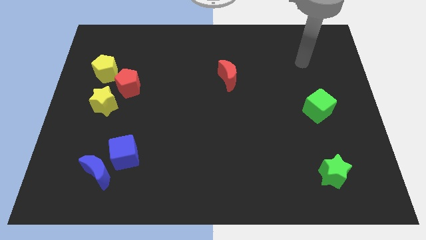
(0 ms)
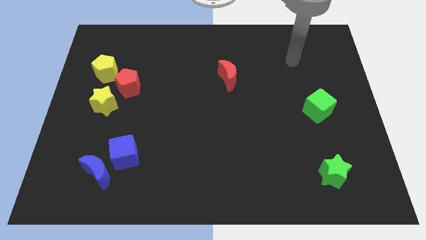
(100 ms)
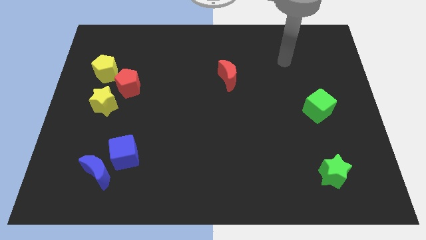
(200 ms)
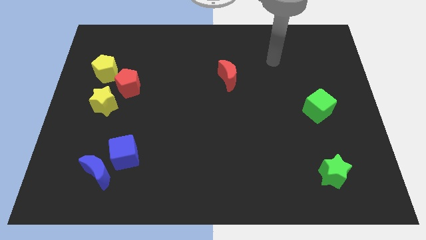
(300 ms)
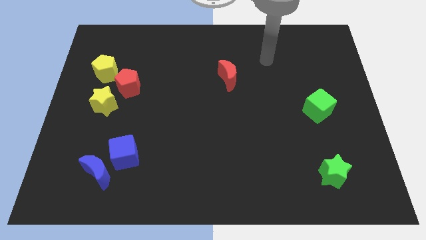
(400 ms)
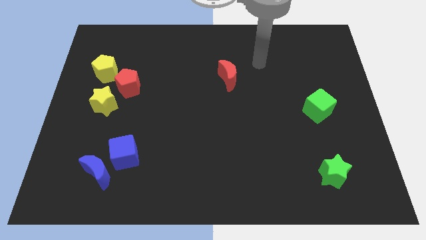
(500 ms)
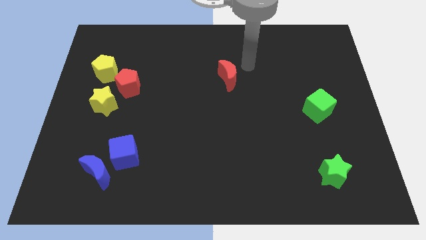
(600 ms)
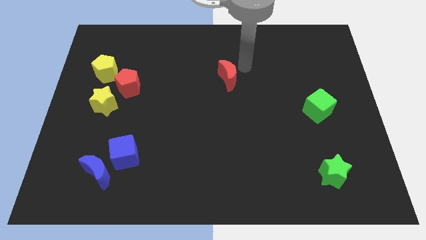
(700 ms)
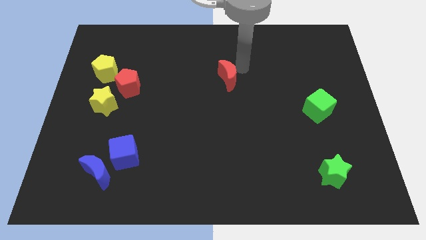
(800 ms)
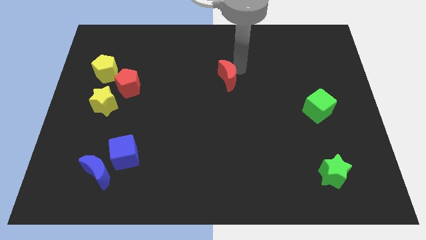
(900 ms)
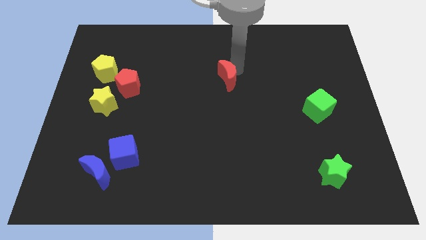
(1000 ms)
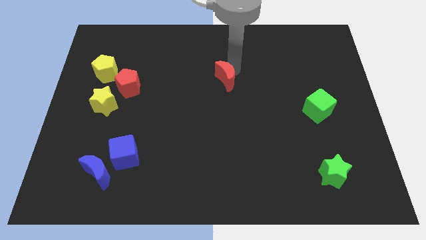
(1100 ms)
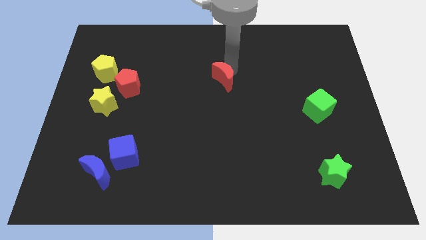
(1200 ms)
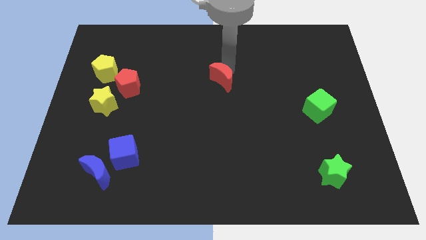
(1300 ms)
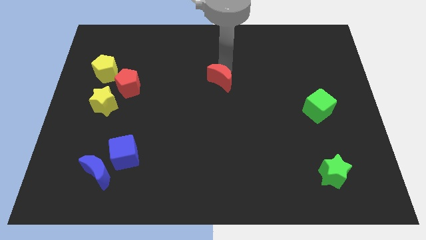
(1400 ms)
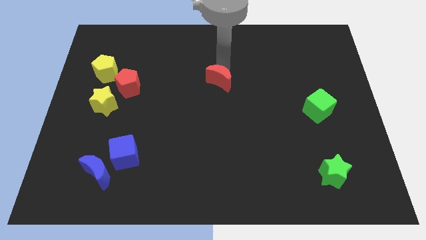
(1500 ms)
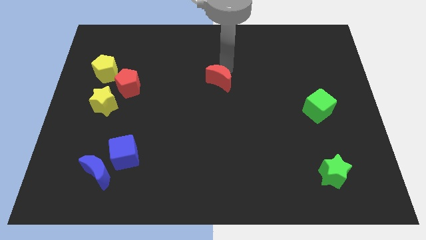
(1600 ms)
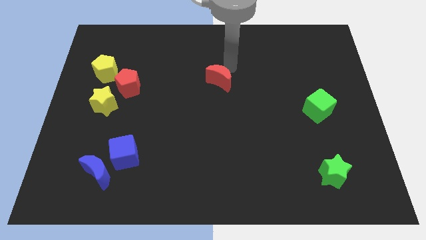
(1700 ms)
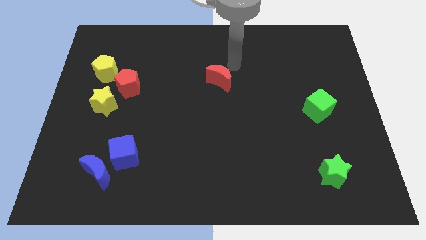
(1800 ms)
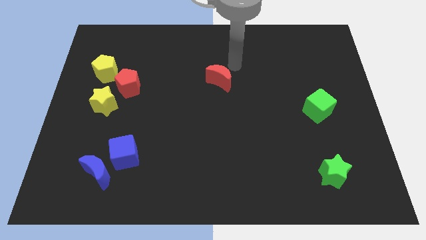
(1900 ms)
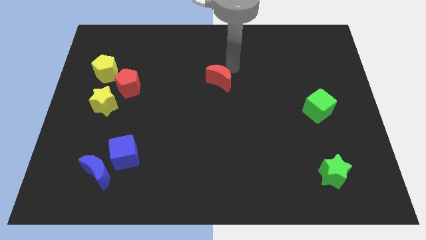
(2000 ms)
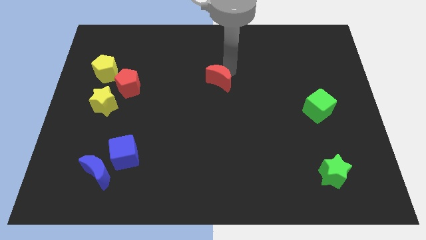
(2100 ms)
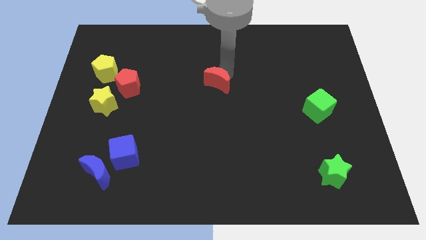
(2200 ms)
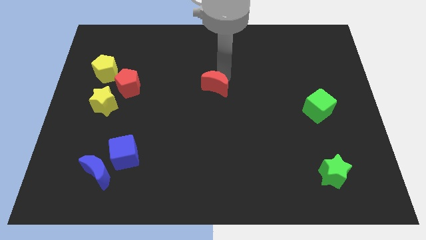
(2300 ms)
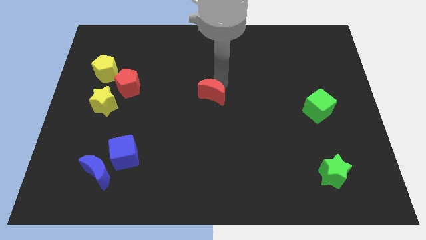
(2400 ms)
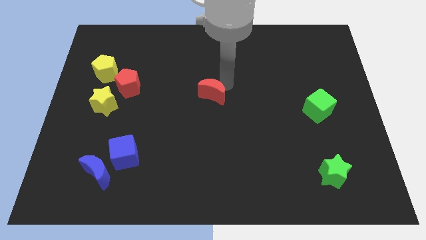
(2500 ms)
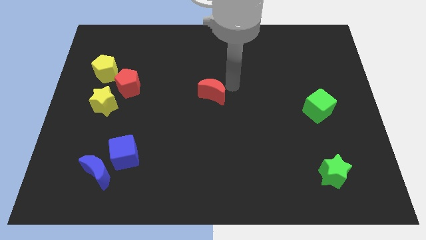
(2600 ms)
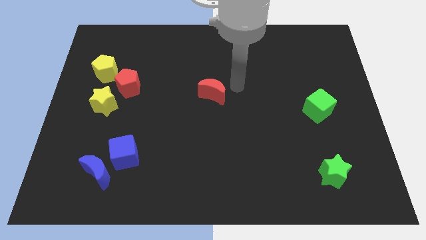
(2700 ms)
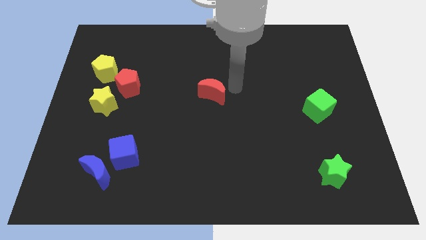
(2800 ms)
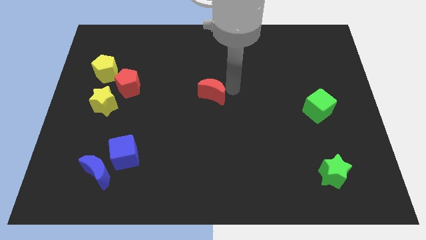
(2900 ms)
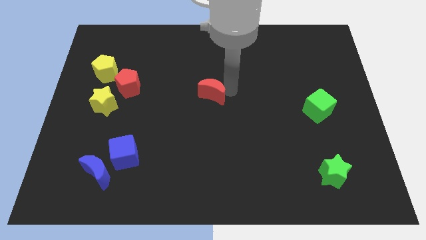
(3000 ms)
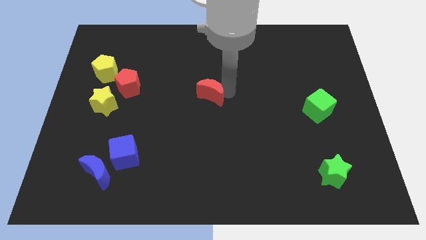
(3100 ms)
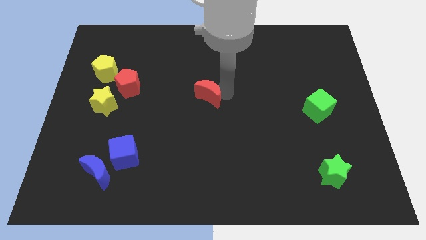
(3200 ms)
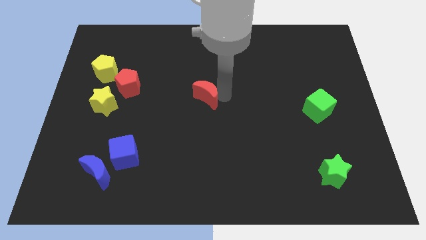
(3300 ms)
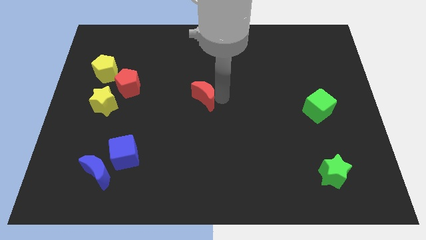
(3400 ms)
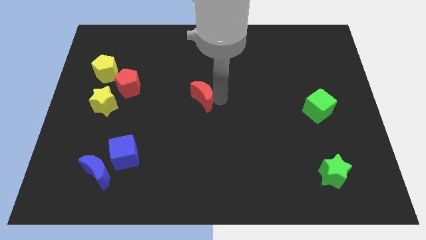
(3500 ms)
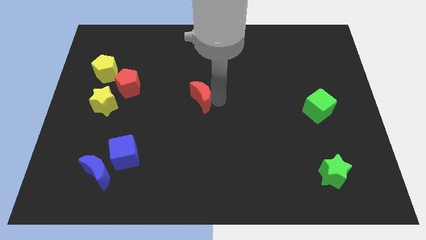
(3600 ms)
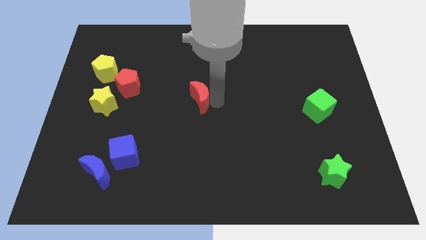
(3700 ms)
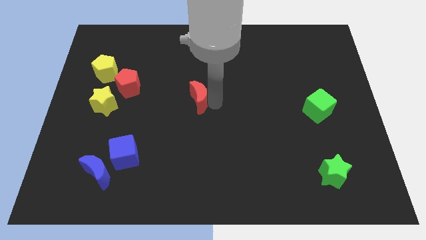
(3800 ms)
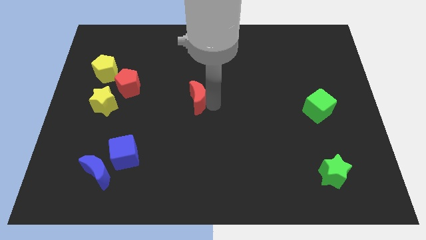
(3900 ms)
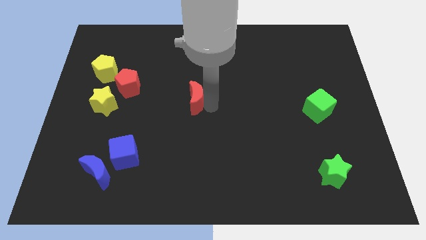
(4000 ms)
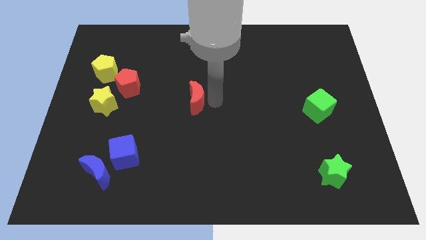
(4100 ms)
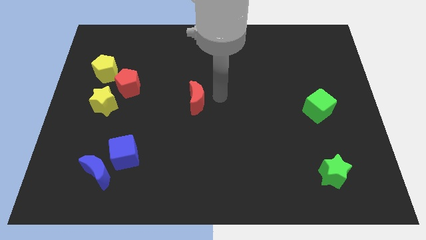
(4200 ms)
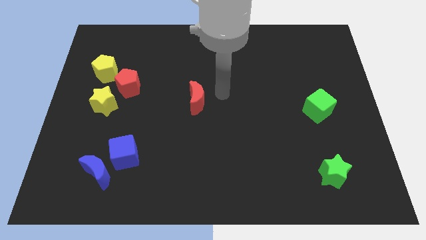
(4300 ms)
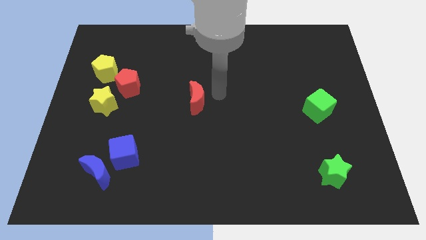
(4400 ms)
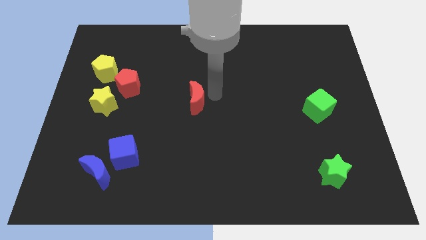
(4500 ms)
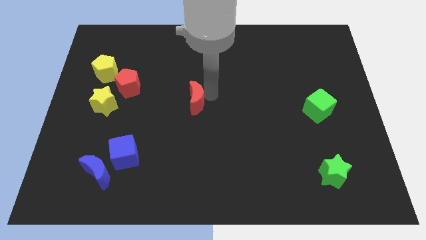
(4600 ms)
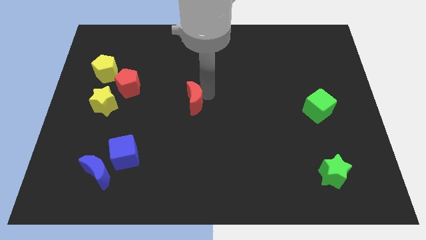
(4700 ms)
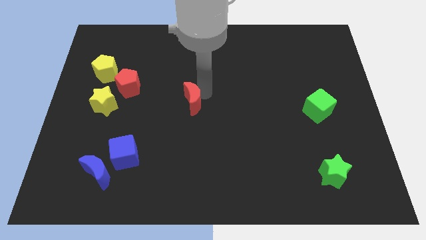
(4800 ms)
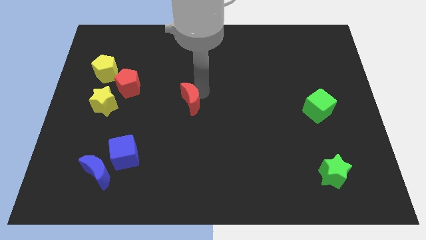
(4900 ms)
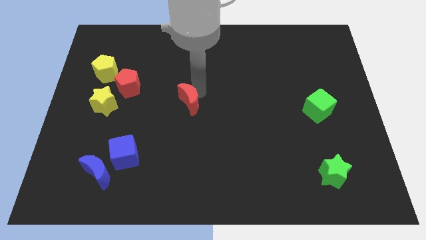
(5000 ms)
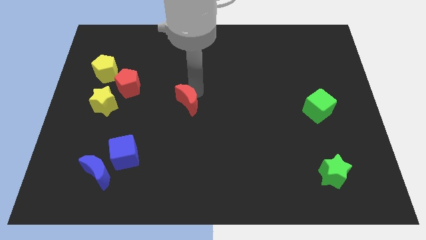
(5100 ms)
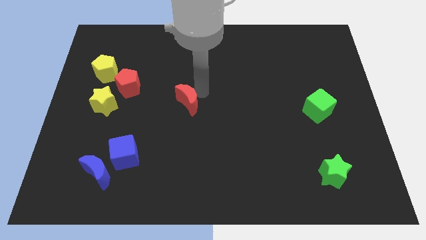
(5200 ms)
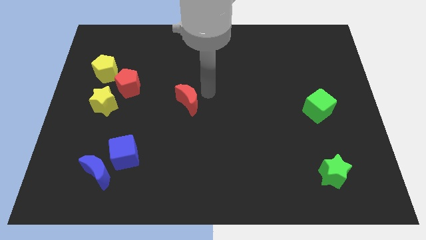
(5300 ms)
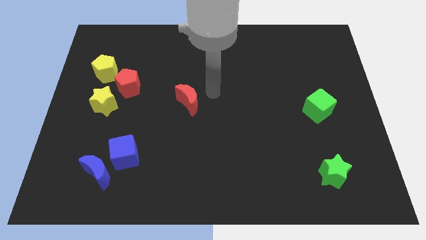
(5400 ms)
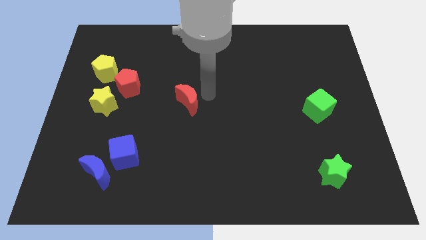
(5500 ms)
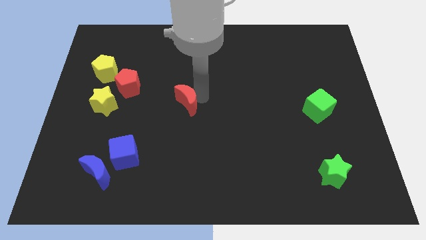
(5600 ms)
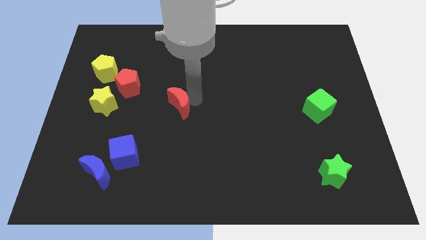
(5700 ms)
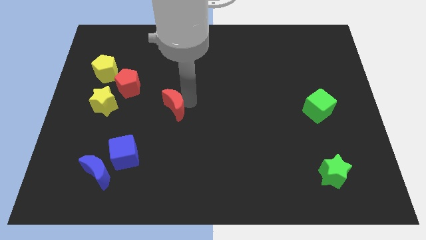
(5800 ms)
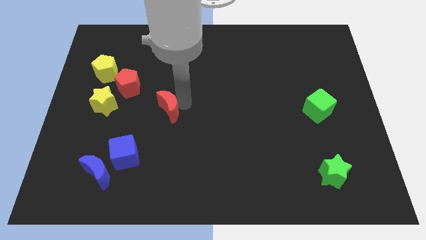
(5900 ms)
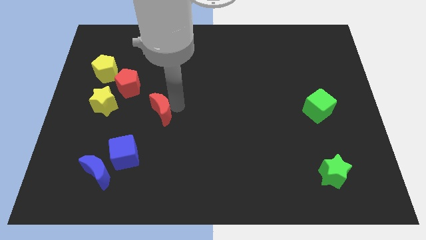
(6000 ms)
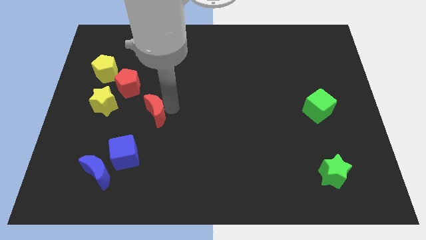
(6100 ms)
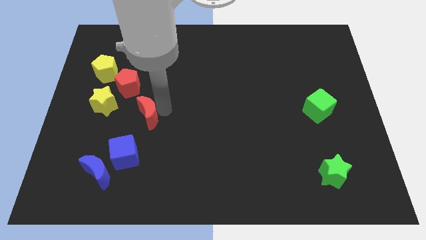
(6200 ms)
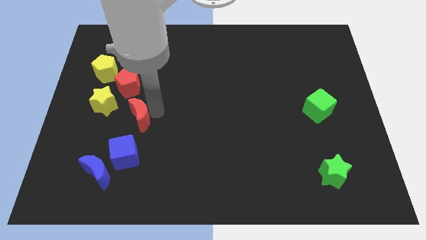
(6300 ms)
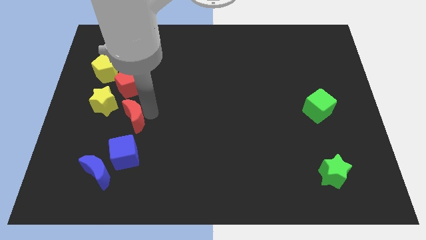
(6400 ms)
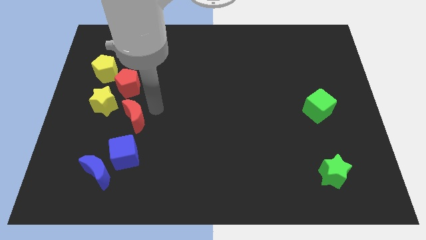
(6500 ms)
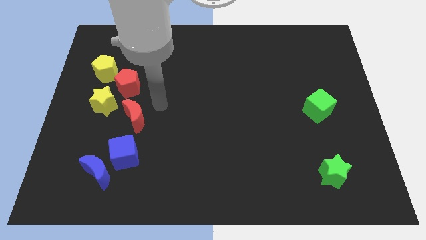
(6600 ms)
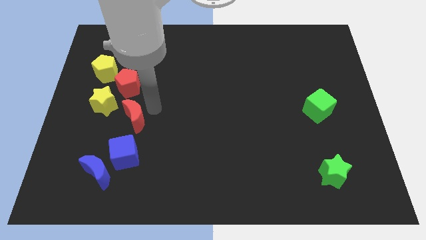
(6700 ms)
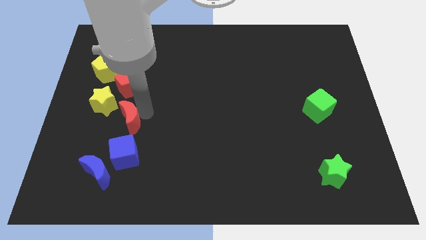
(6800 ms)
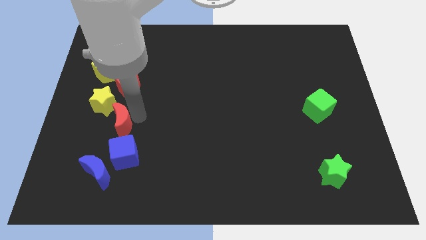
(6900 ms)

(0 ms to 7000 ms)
move the red moon to the top left of the blue cube

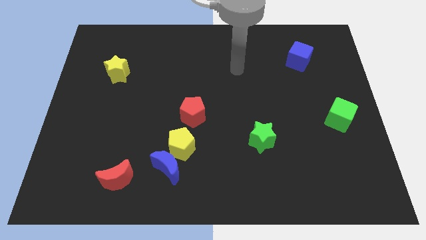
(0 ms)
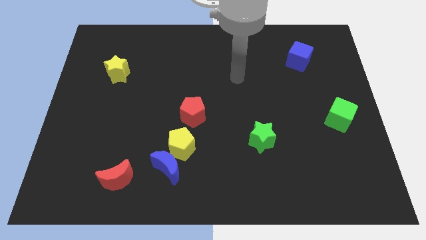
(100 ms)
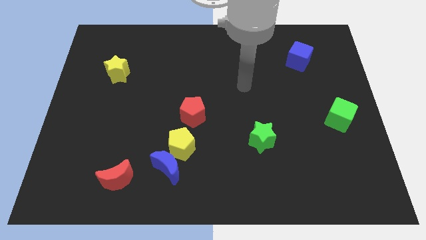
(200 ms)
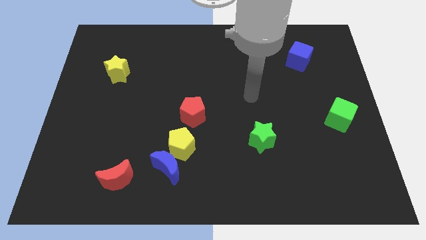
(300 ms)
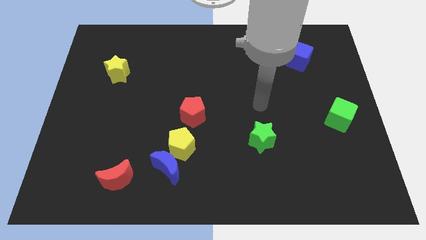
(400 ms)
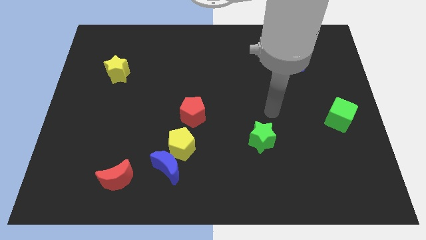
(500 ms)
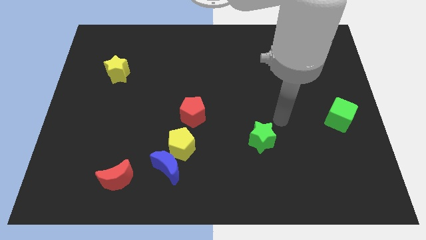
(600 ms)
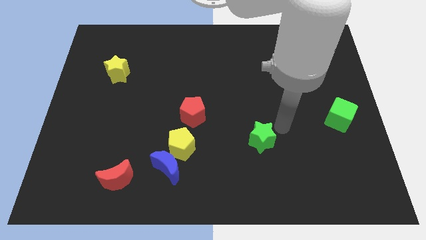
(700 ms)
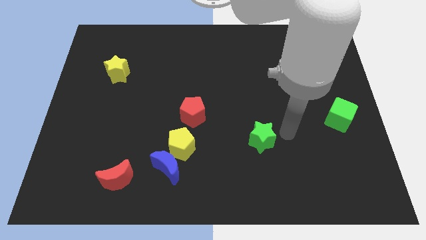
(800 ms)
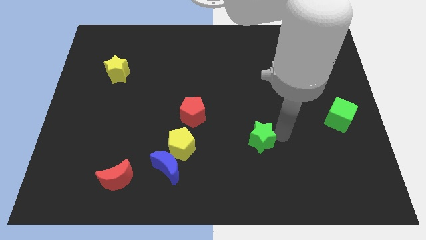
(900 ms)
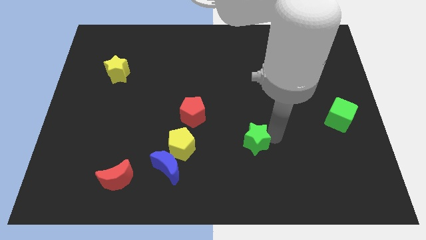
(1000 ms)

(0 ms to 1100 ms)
slide the green star right of the yellow pentagon
